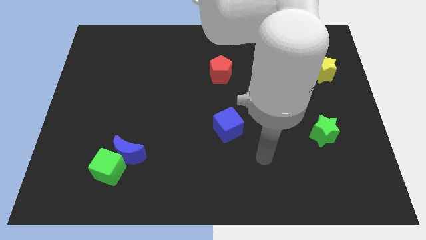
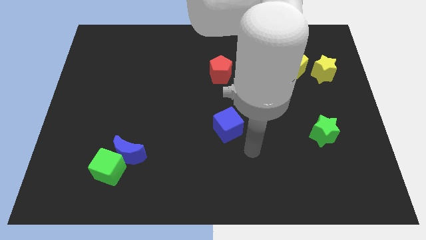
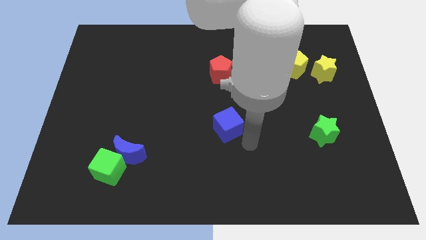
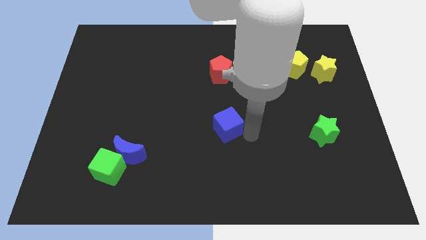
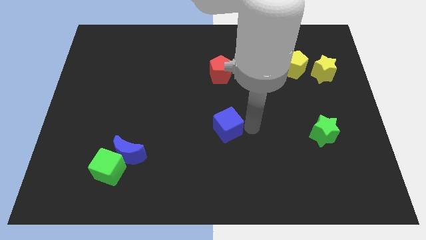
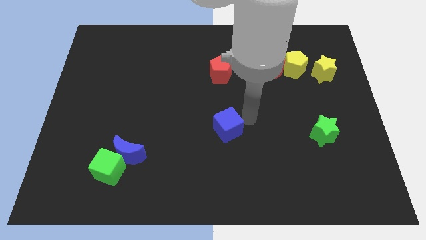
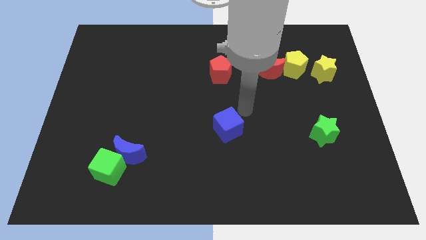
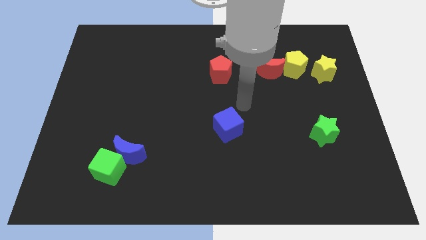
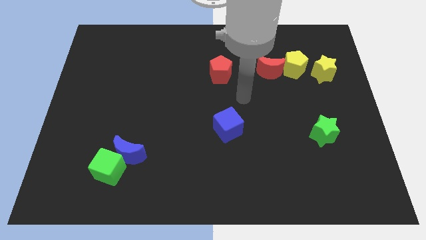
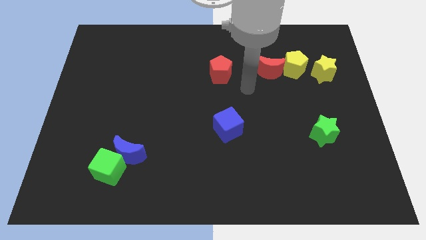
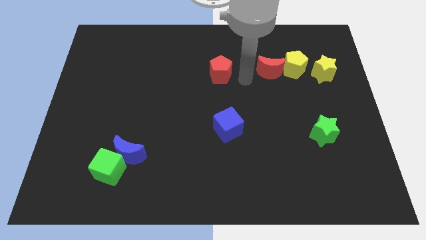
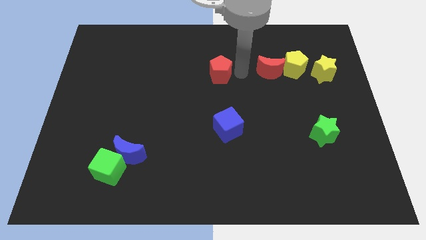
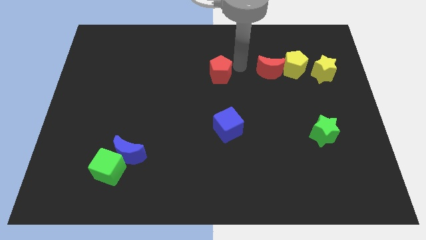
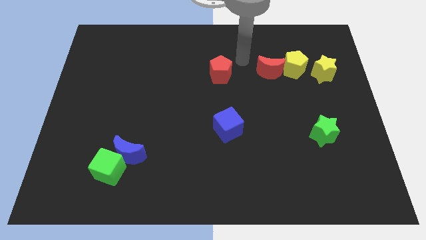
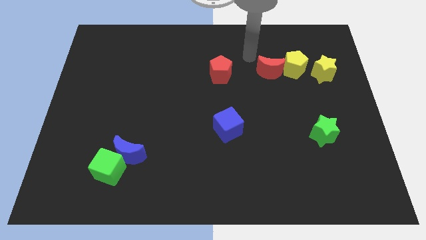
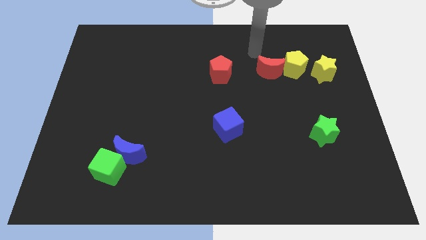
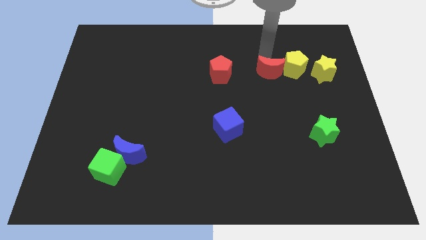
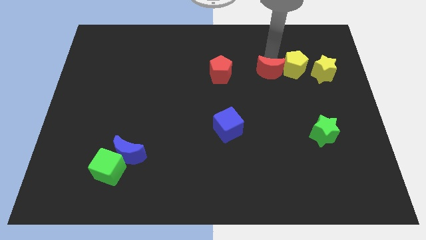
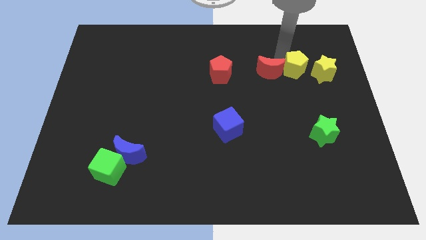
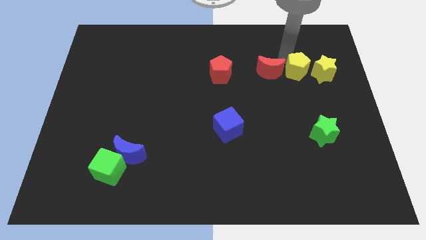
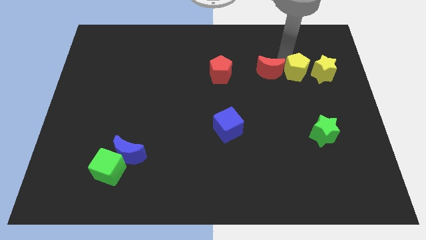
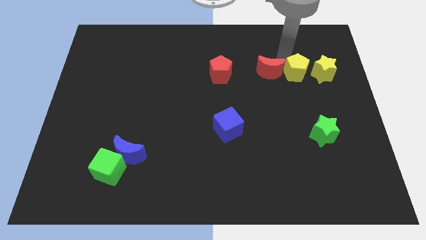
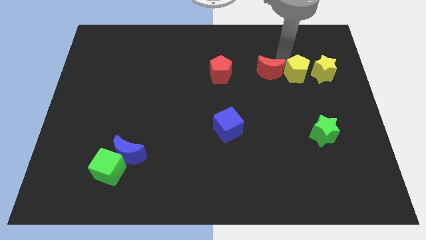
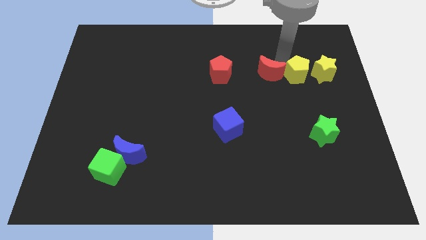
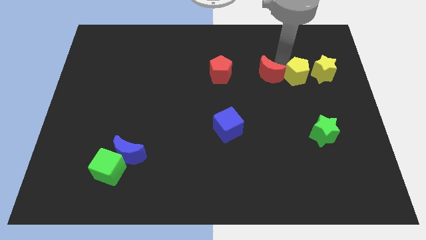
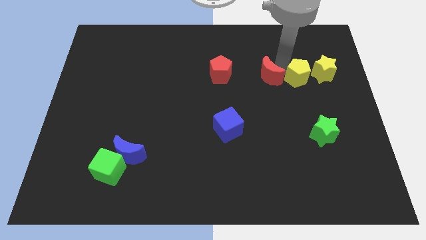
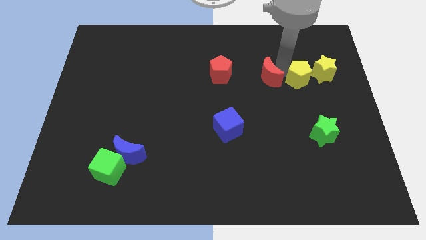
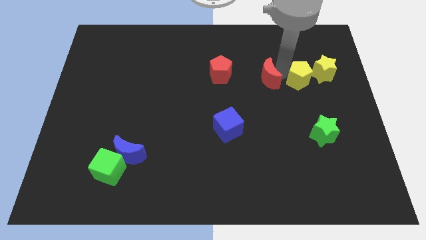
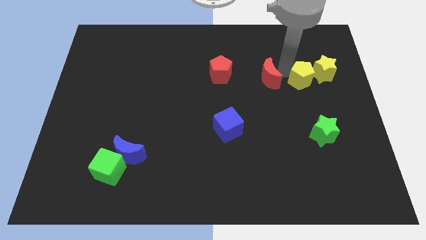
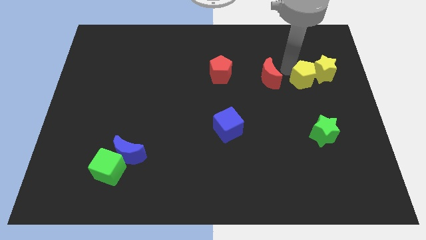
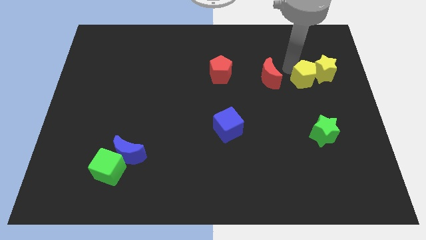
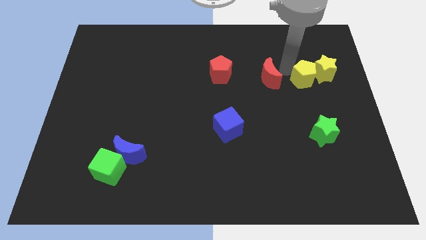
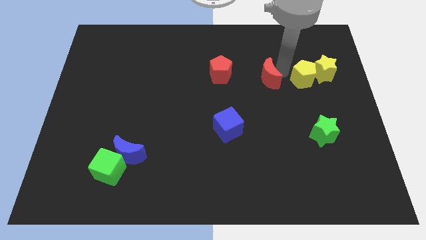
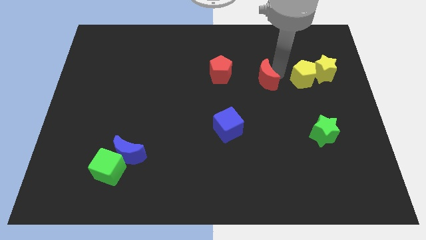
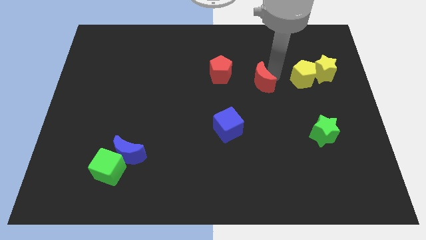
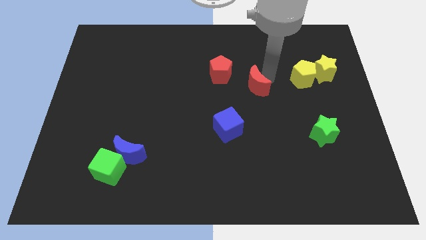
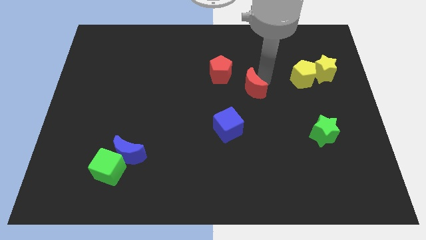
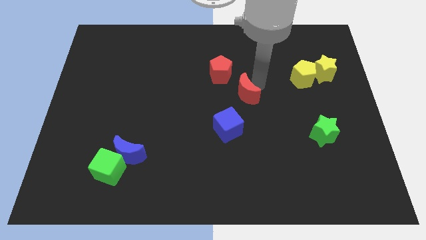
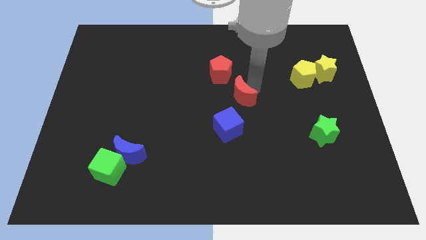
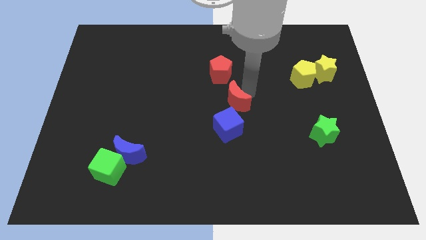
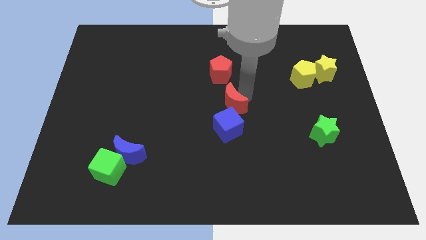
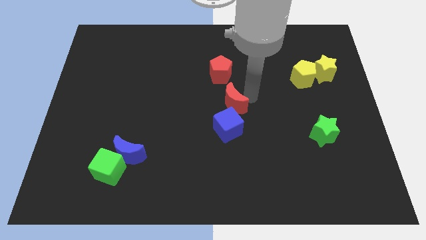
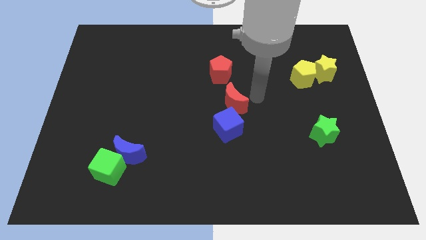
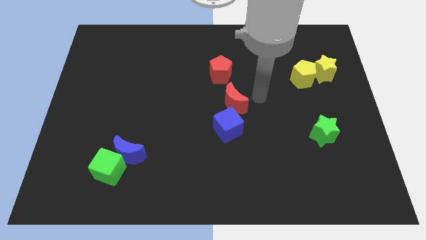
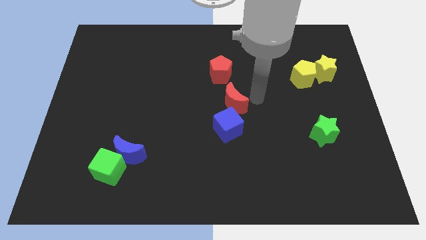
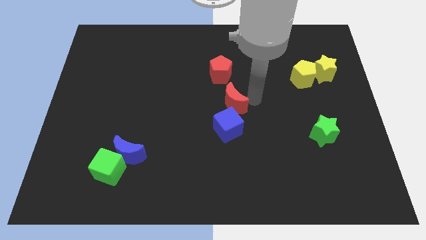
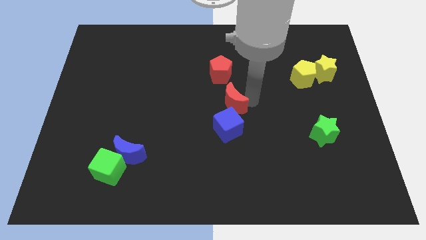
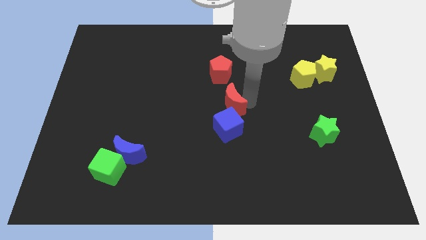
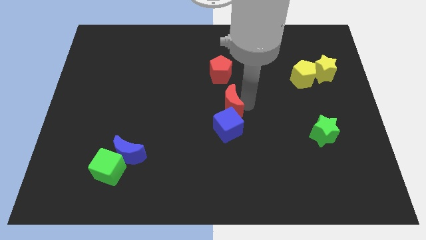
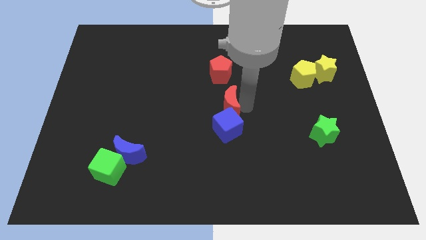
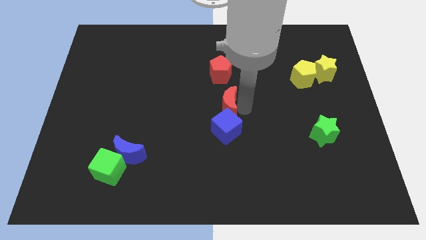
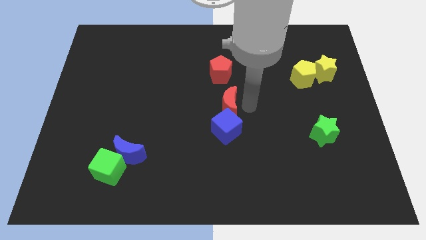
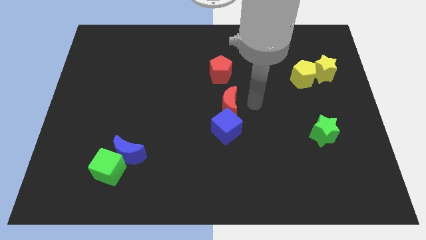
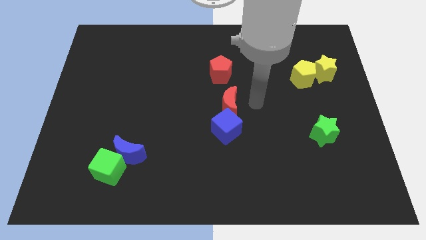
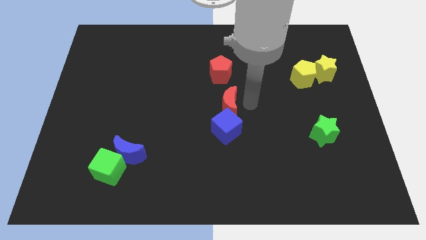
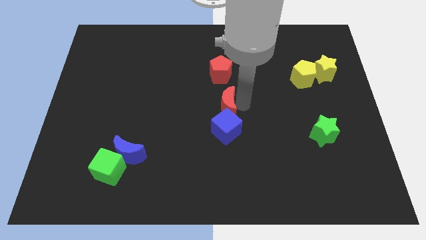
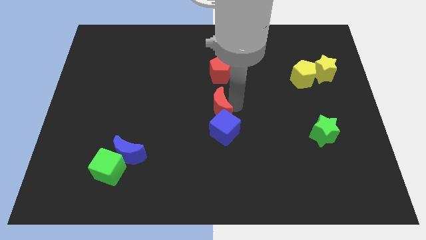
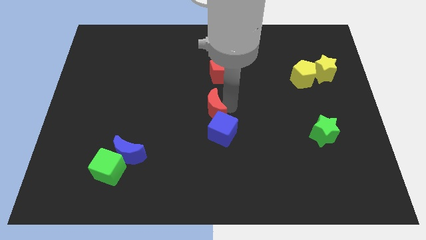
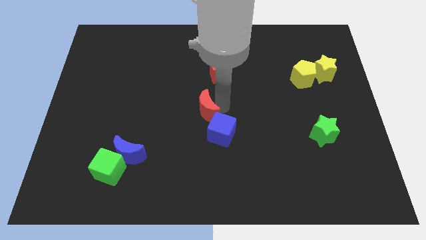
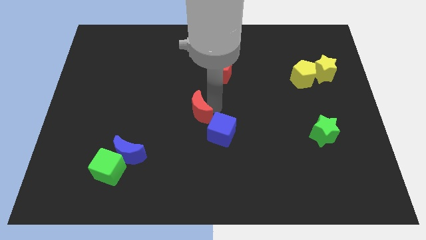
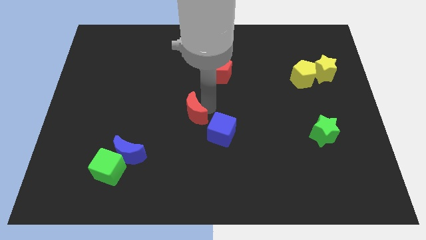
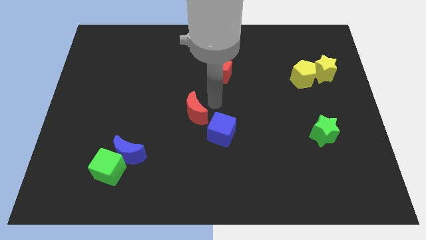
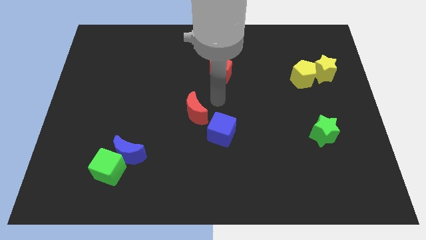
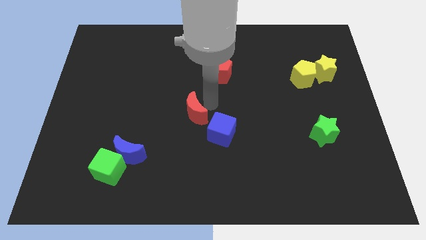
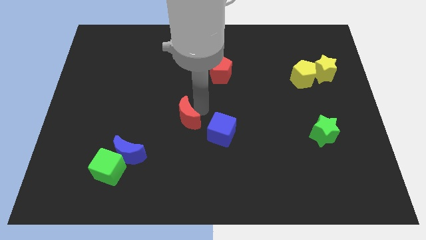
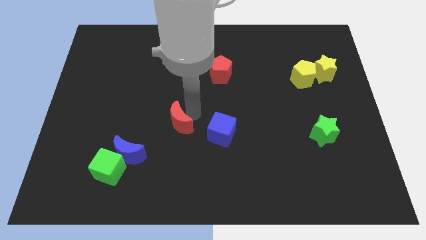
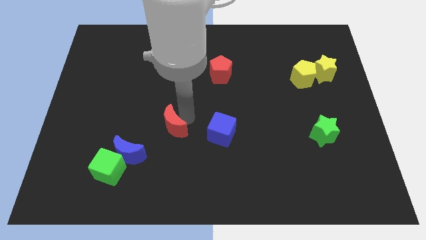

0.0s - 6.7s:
put the red moon to the top right side of the blue moon

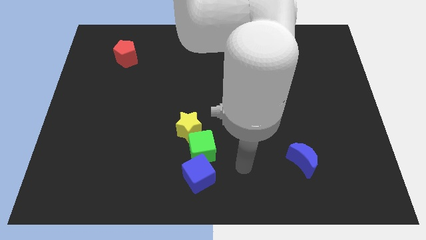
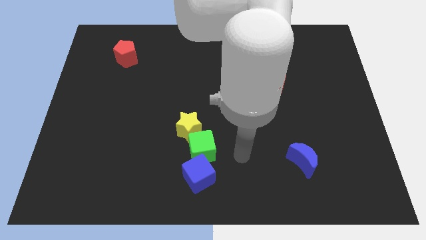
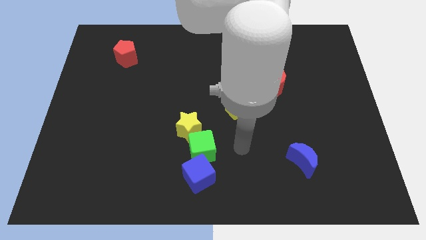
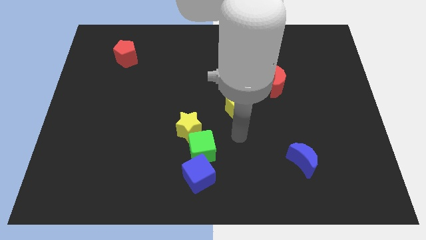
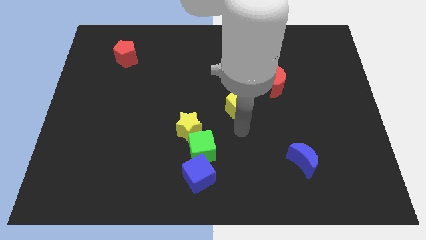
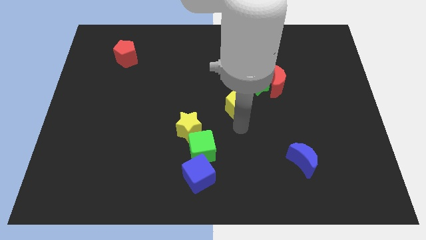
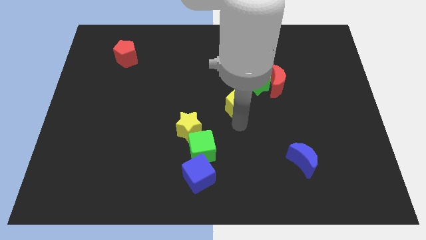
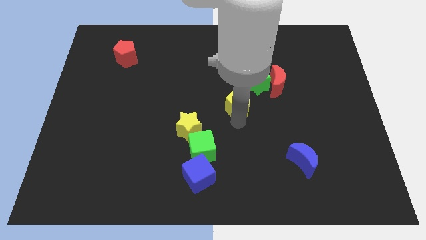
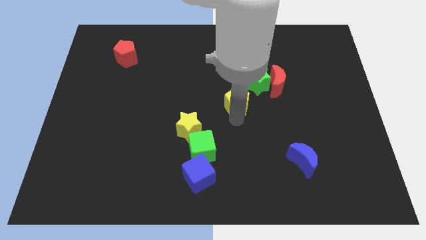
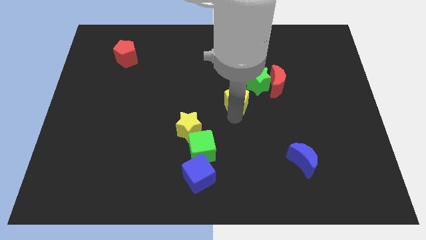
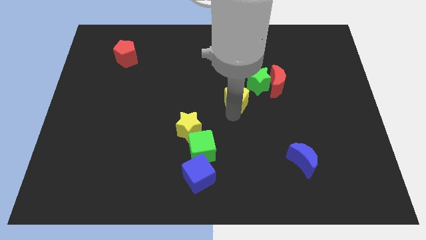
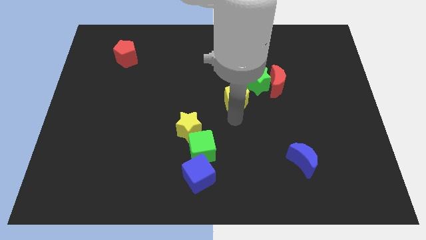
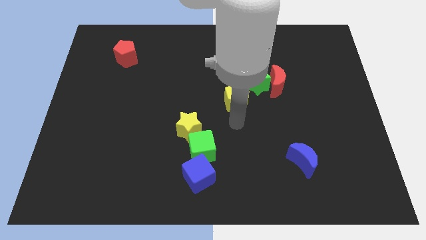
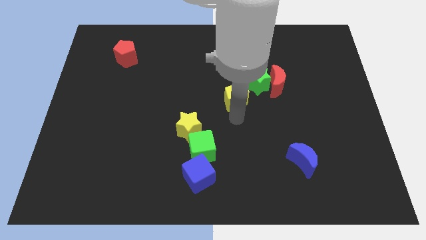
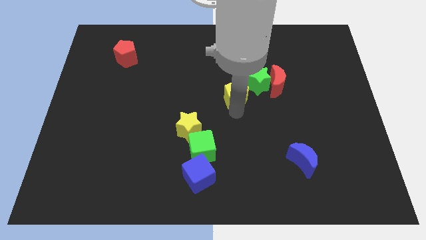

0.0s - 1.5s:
push the yellow pentagon left of the red moon

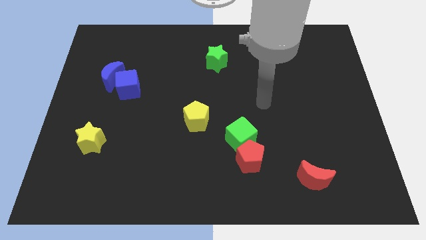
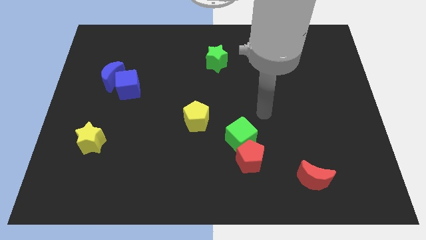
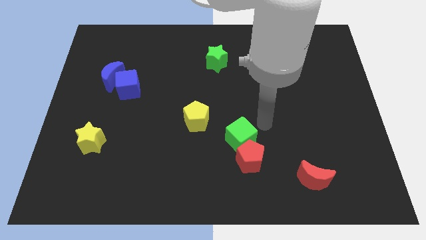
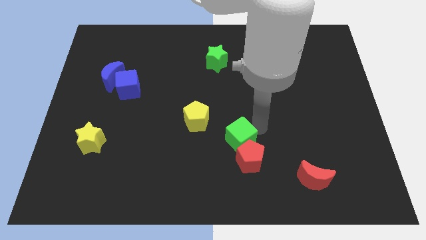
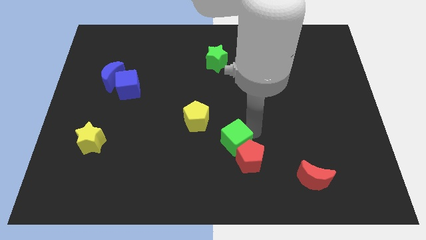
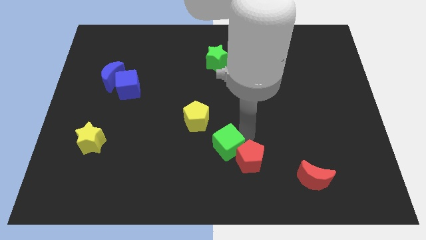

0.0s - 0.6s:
move the green cube to the left of the red pentagon
